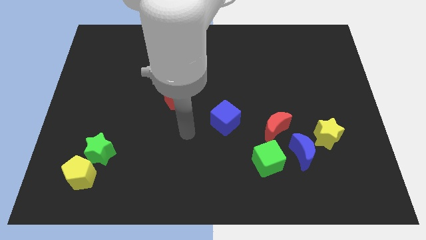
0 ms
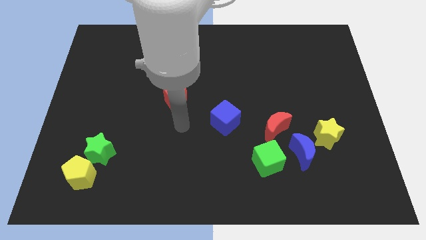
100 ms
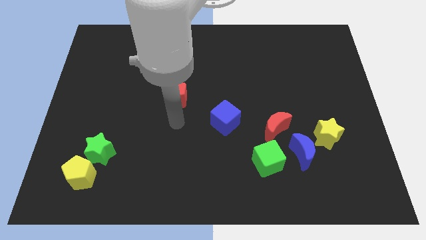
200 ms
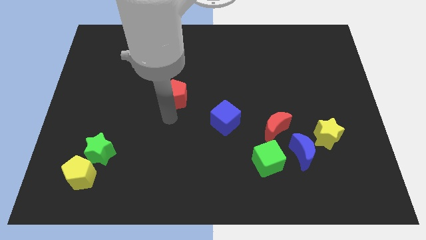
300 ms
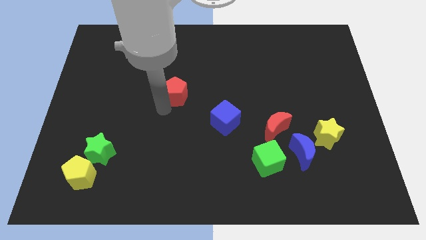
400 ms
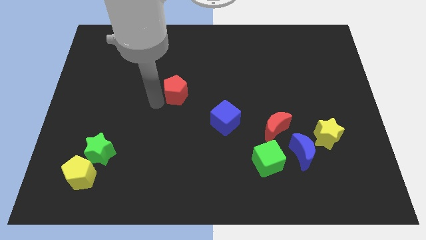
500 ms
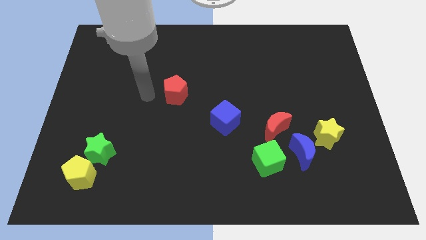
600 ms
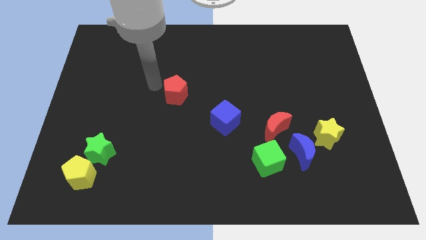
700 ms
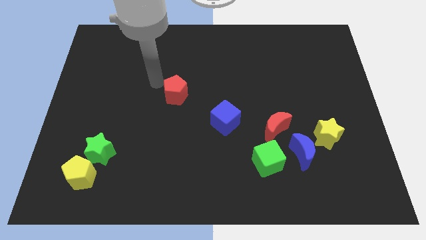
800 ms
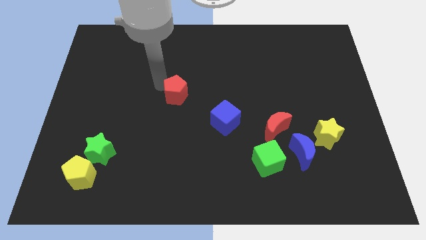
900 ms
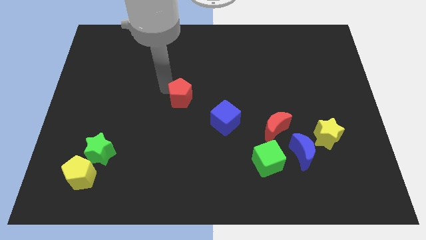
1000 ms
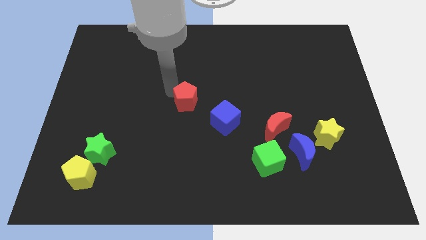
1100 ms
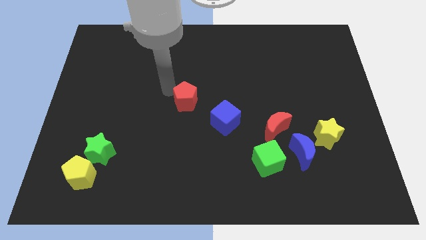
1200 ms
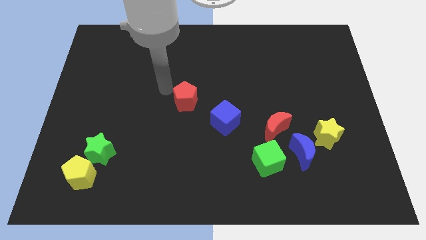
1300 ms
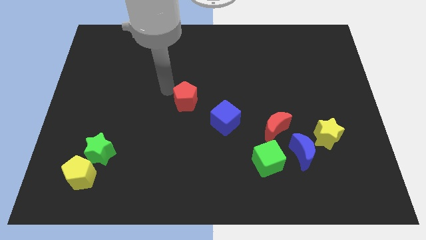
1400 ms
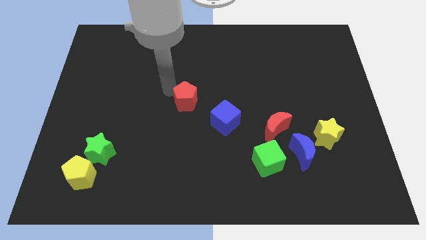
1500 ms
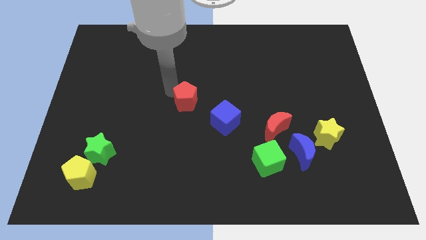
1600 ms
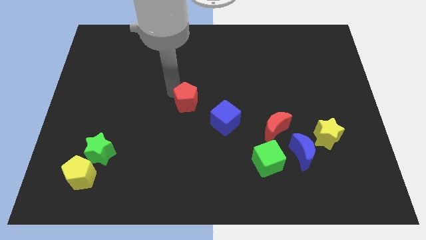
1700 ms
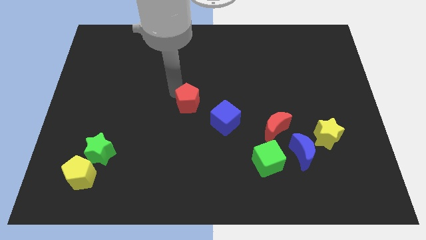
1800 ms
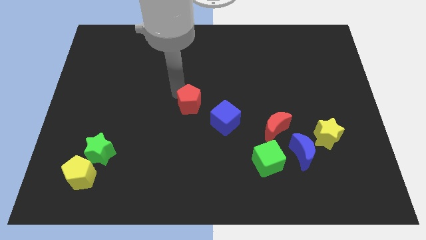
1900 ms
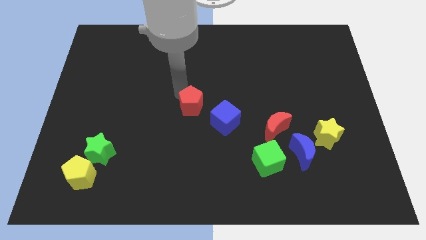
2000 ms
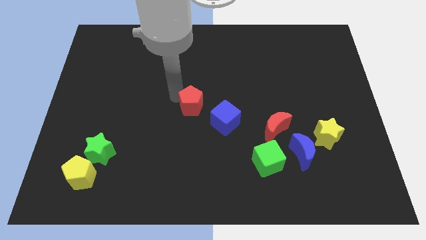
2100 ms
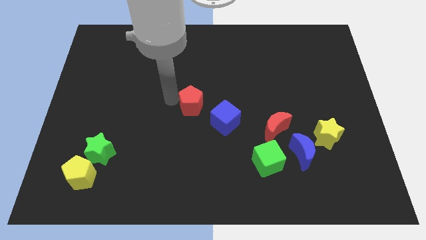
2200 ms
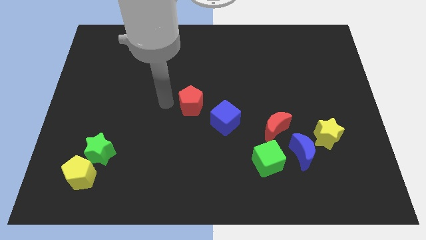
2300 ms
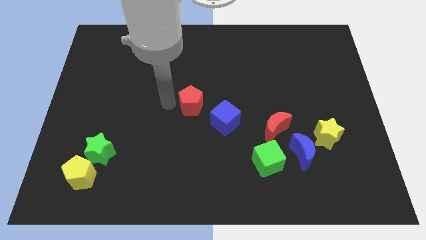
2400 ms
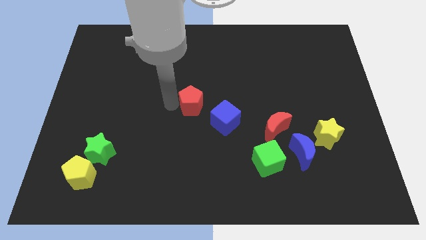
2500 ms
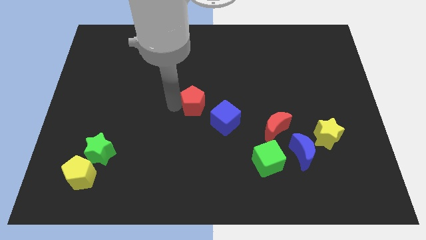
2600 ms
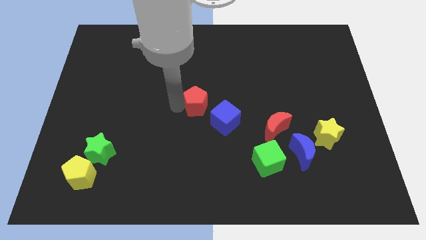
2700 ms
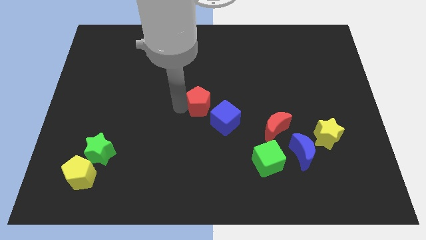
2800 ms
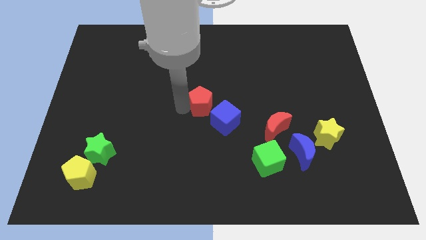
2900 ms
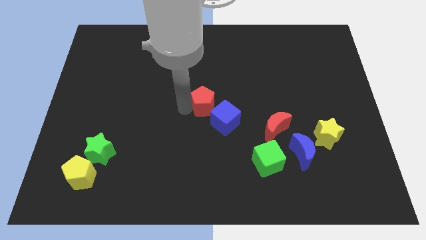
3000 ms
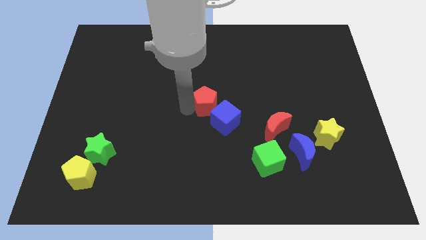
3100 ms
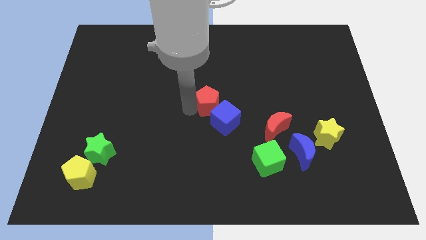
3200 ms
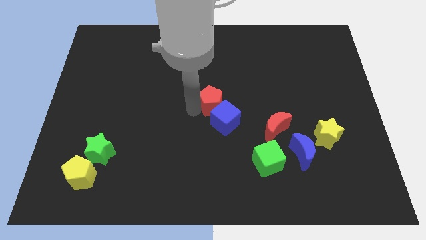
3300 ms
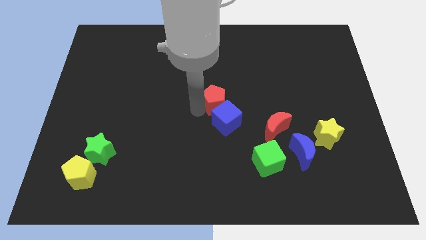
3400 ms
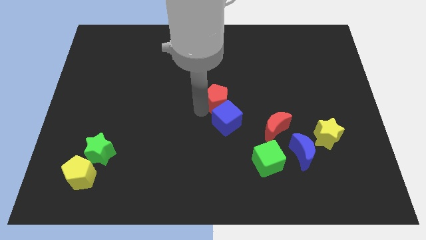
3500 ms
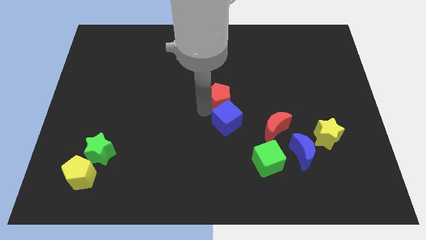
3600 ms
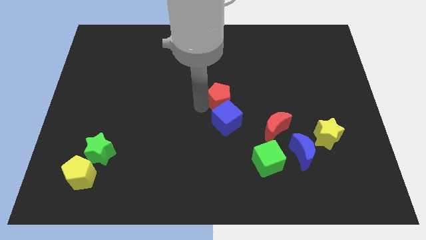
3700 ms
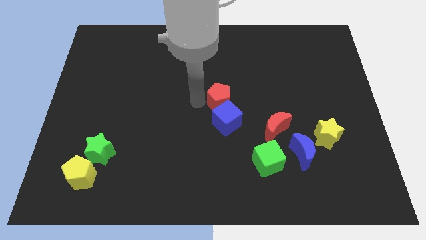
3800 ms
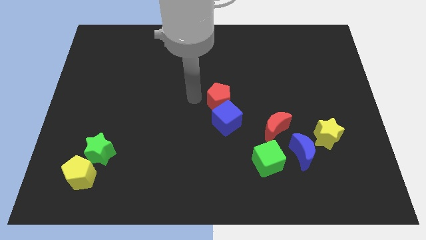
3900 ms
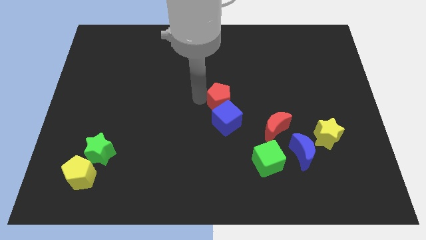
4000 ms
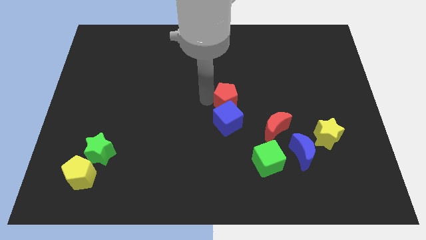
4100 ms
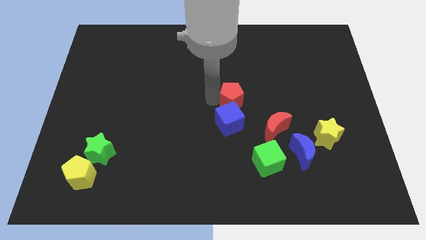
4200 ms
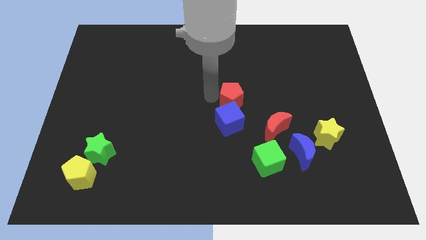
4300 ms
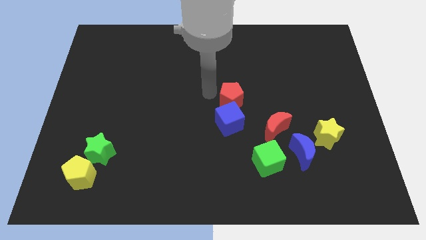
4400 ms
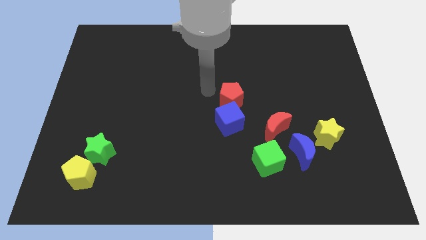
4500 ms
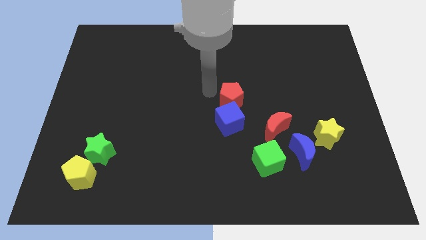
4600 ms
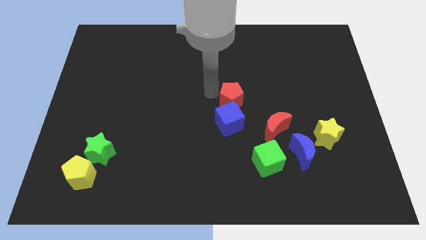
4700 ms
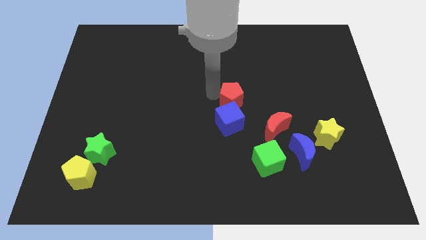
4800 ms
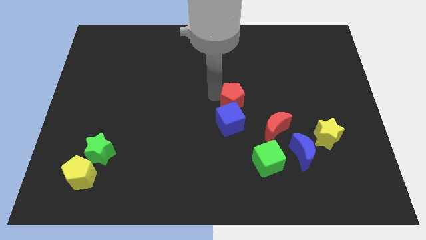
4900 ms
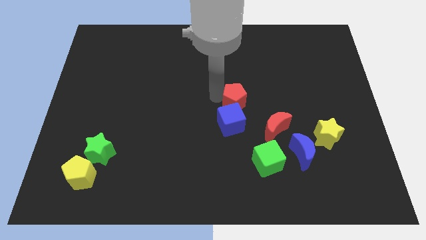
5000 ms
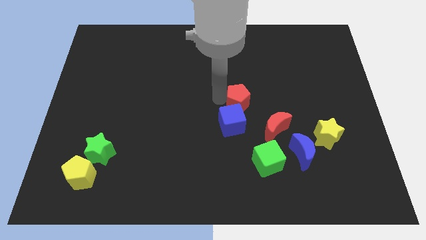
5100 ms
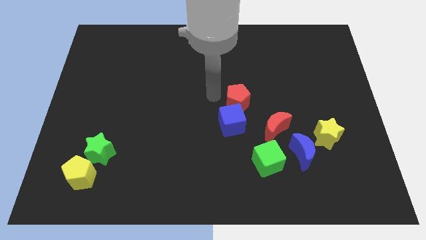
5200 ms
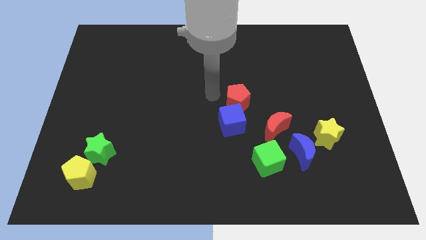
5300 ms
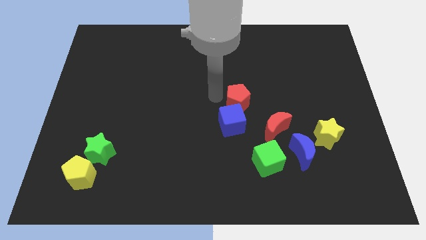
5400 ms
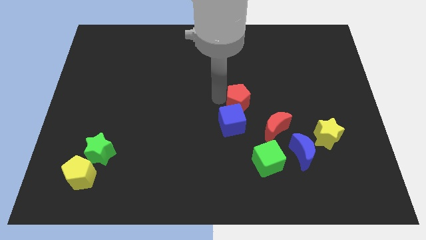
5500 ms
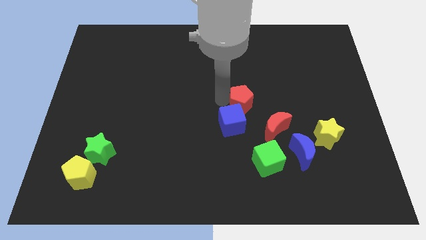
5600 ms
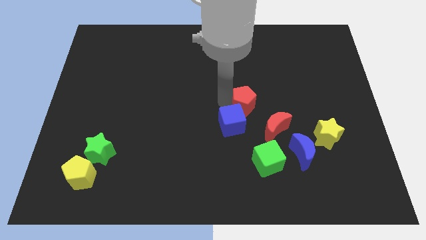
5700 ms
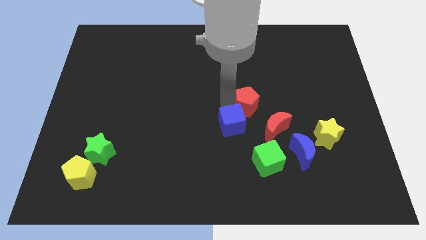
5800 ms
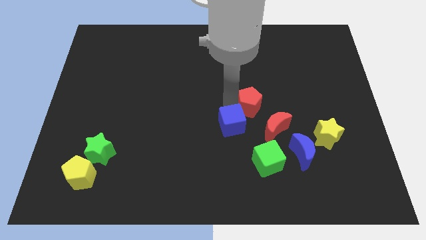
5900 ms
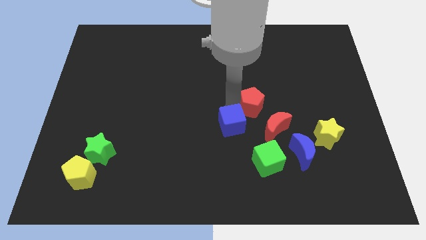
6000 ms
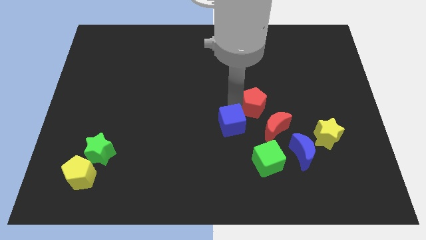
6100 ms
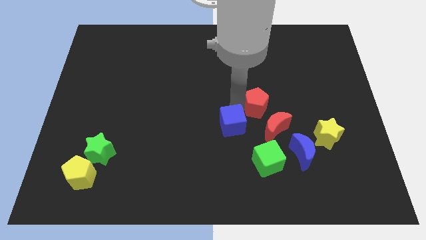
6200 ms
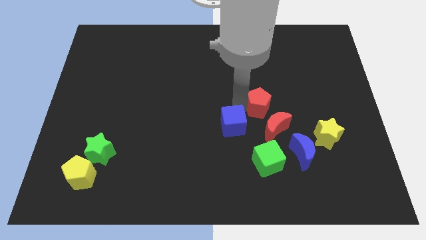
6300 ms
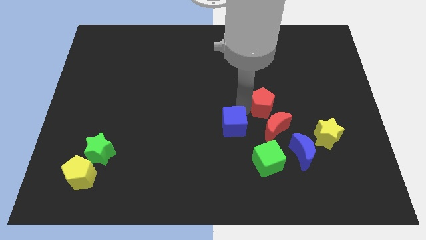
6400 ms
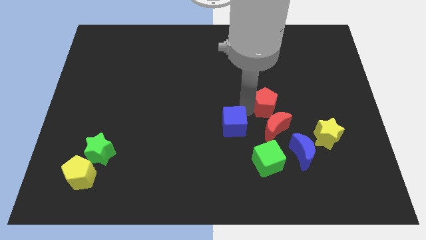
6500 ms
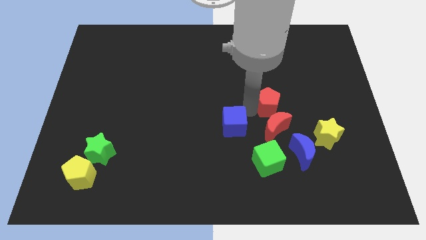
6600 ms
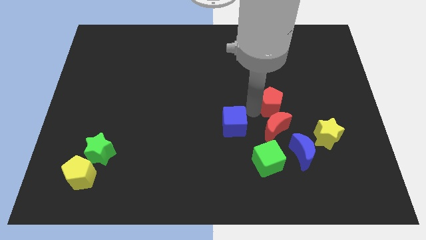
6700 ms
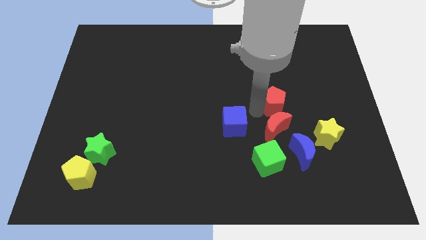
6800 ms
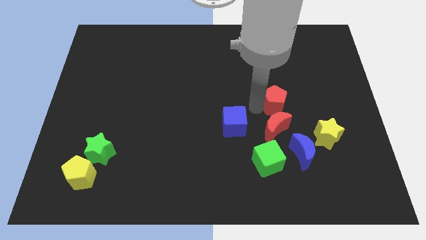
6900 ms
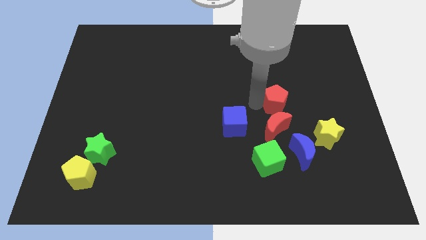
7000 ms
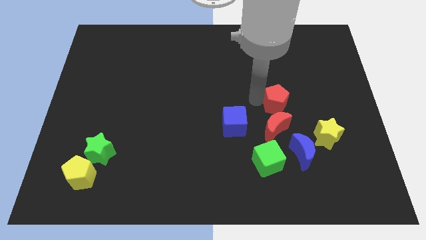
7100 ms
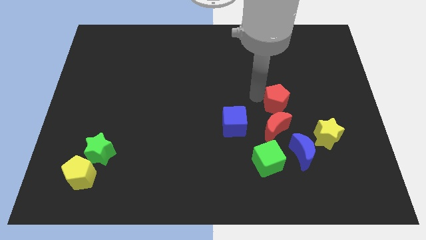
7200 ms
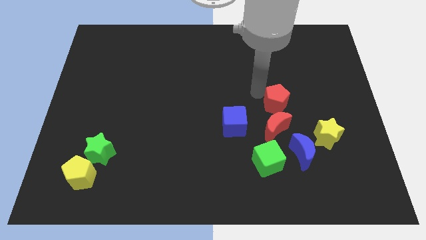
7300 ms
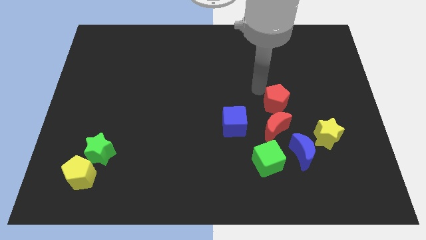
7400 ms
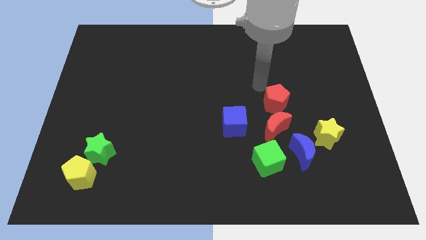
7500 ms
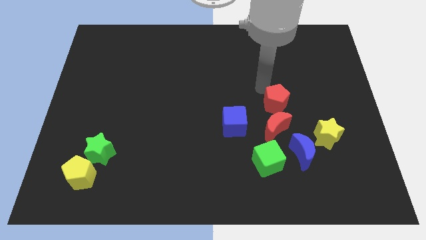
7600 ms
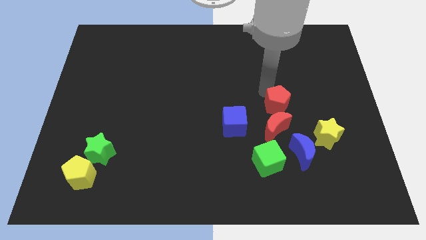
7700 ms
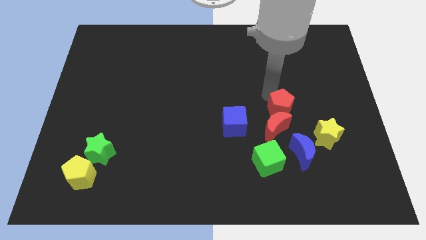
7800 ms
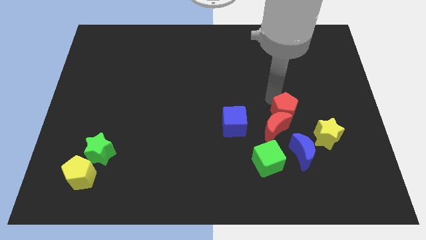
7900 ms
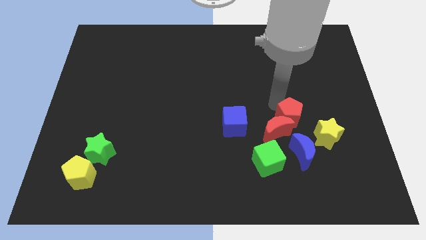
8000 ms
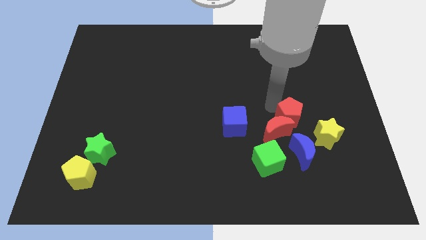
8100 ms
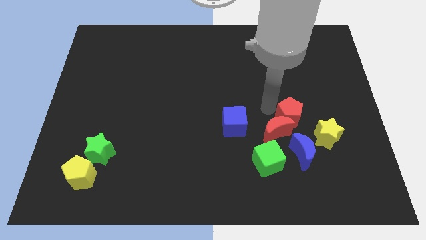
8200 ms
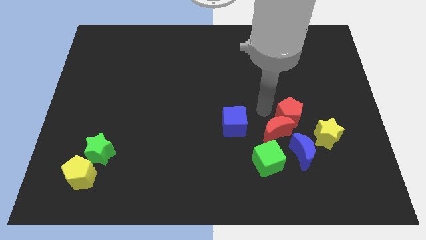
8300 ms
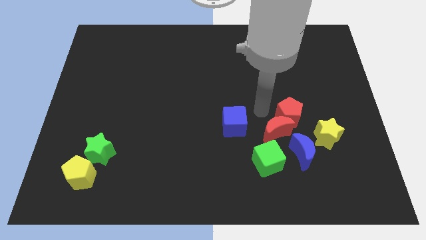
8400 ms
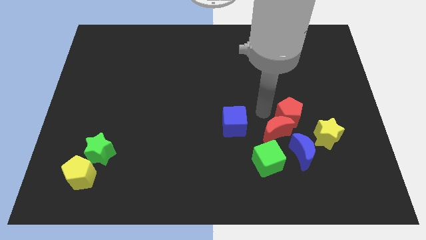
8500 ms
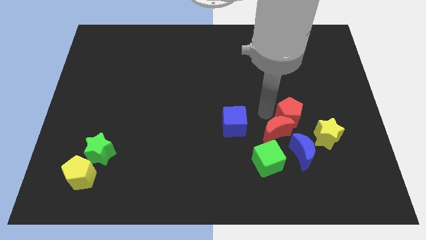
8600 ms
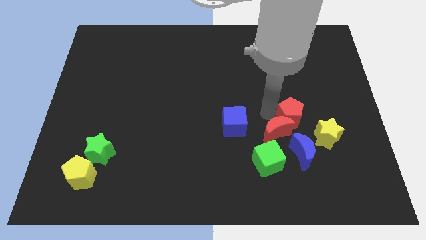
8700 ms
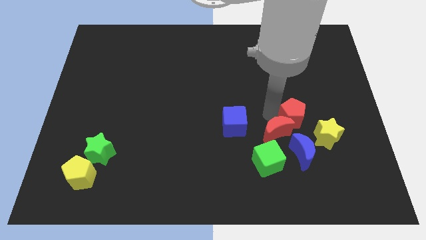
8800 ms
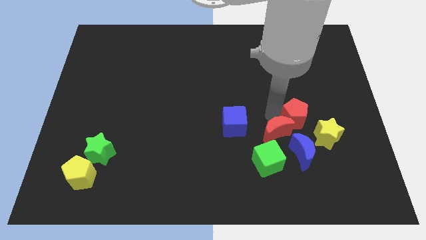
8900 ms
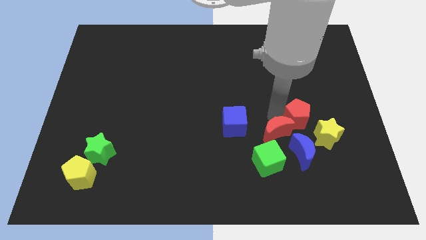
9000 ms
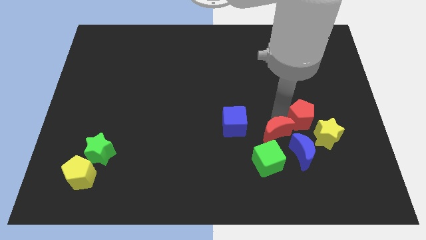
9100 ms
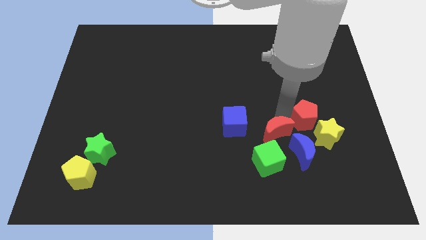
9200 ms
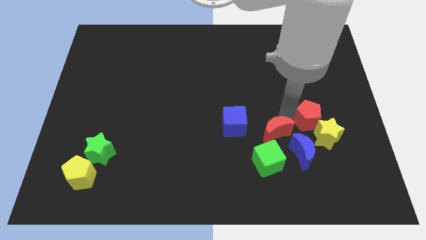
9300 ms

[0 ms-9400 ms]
slide the red pentagon to the top right side of the blue moon
